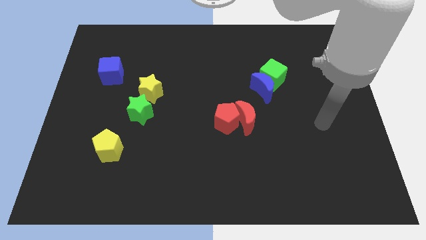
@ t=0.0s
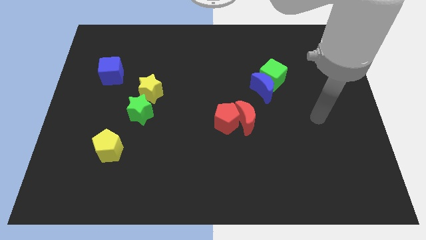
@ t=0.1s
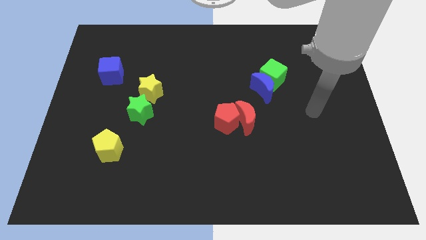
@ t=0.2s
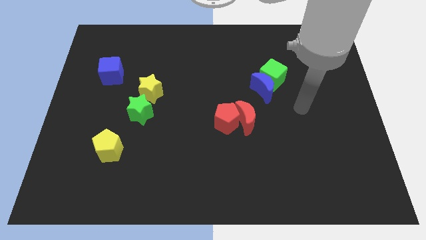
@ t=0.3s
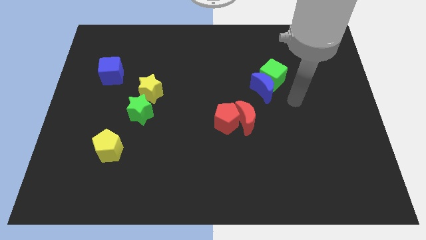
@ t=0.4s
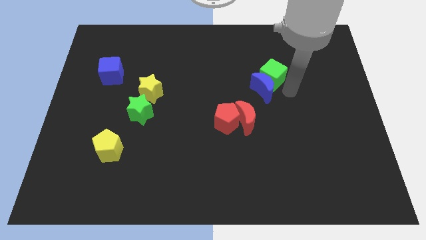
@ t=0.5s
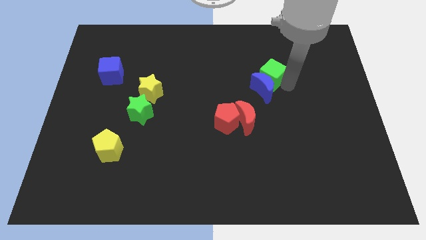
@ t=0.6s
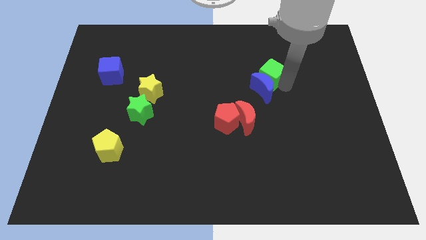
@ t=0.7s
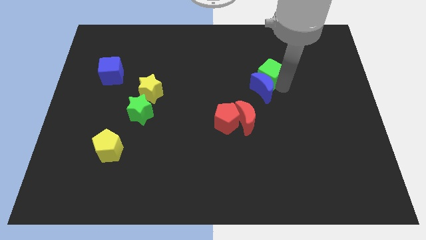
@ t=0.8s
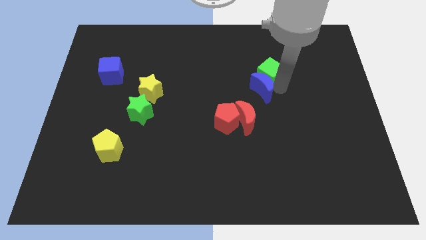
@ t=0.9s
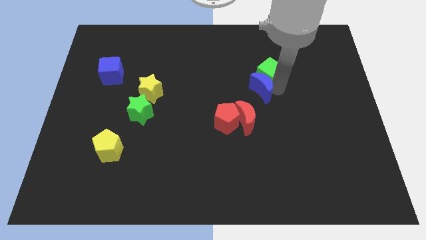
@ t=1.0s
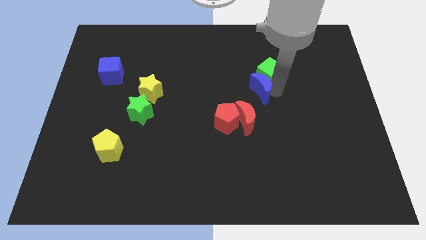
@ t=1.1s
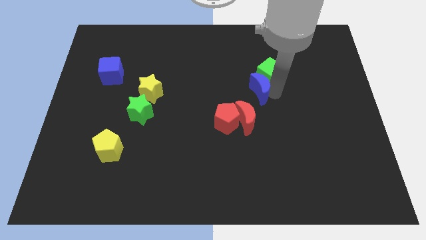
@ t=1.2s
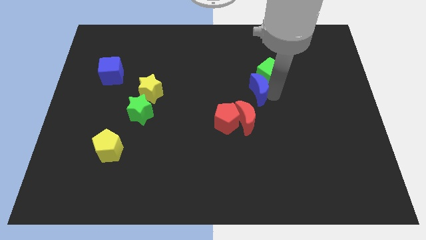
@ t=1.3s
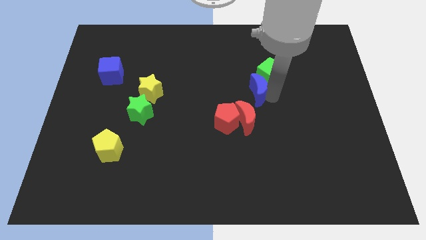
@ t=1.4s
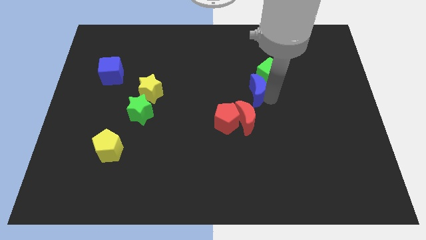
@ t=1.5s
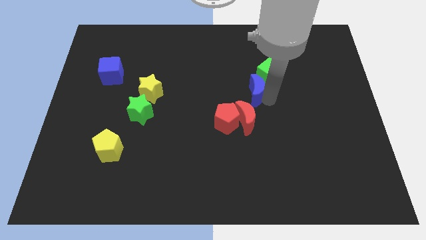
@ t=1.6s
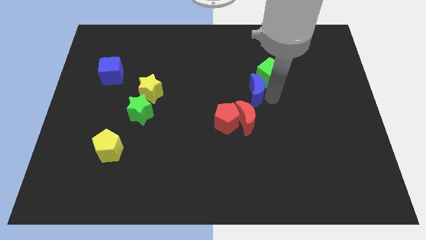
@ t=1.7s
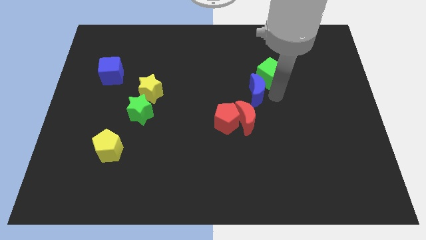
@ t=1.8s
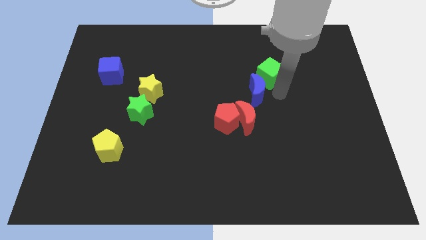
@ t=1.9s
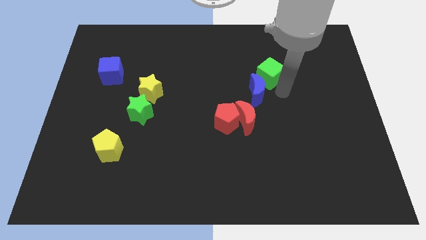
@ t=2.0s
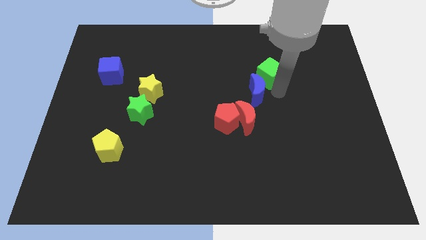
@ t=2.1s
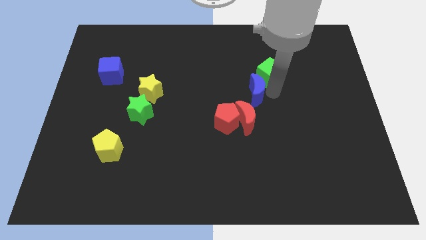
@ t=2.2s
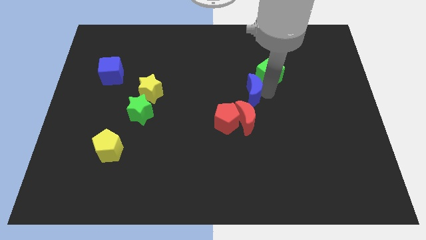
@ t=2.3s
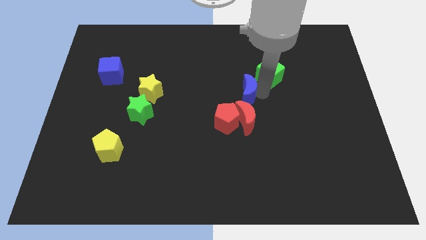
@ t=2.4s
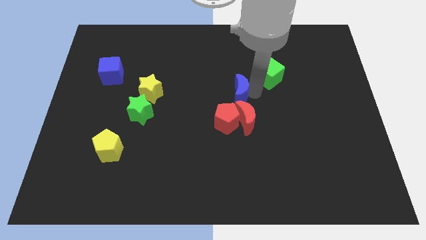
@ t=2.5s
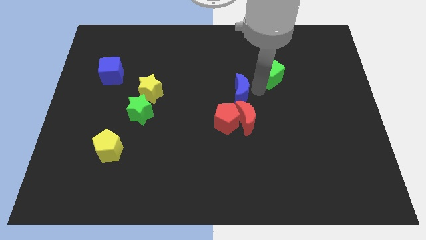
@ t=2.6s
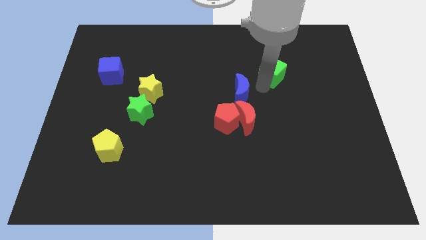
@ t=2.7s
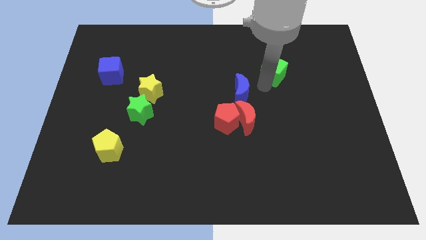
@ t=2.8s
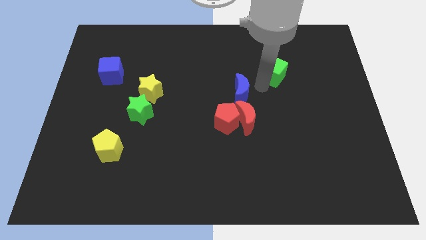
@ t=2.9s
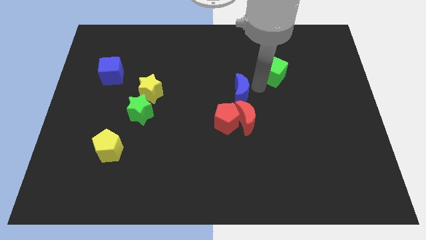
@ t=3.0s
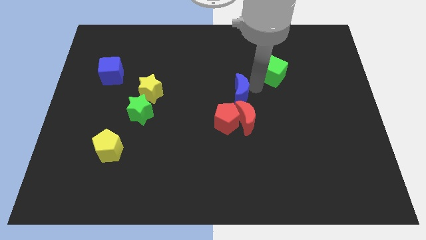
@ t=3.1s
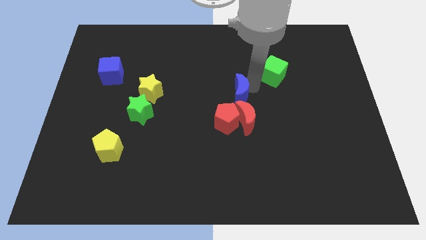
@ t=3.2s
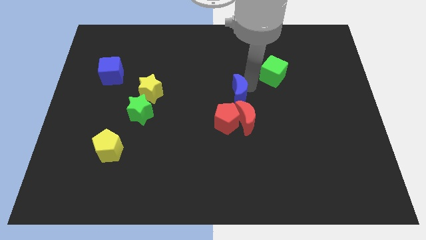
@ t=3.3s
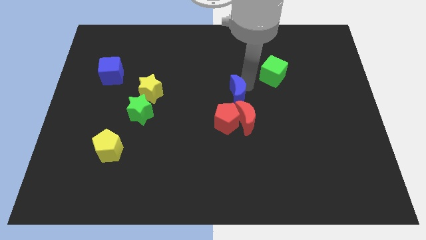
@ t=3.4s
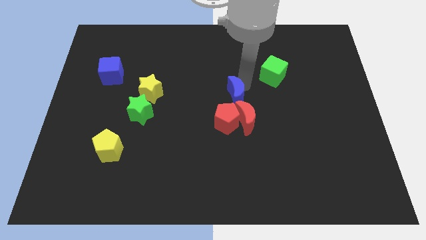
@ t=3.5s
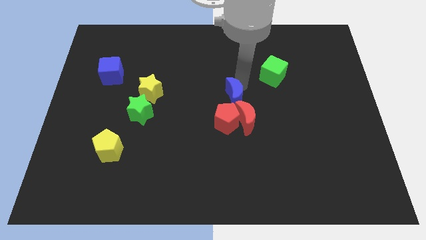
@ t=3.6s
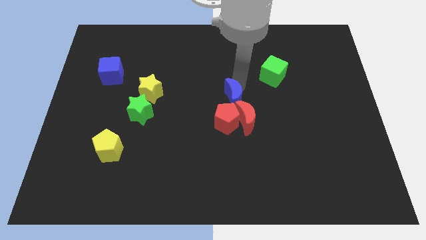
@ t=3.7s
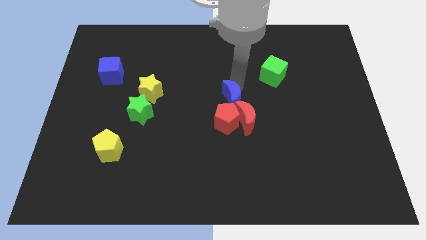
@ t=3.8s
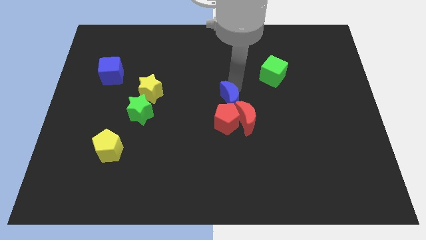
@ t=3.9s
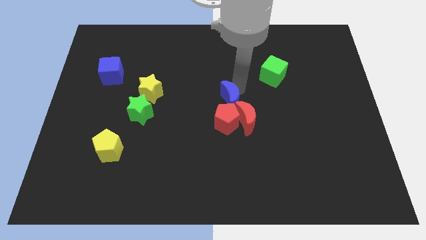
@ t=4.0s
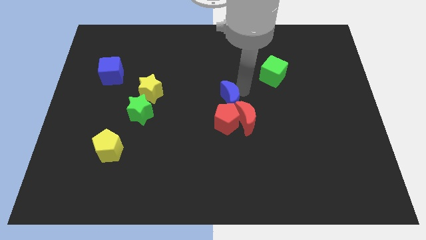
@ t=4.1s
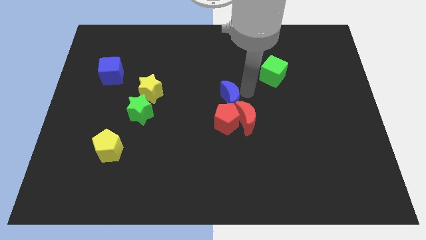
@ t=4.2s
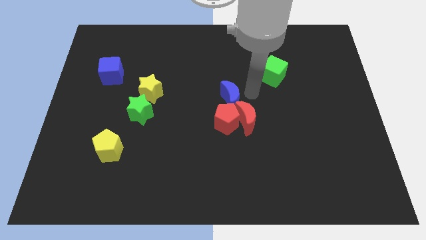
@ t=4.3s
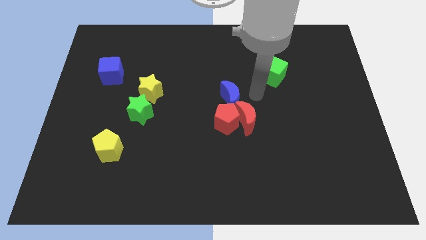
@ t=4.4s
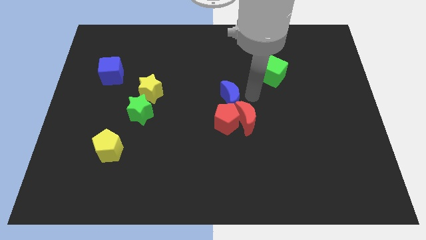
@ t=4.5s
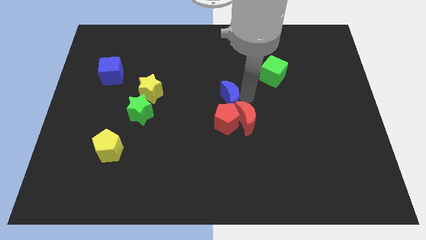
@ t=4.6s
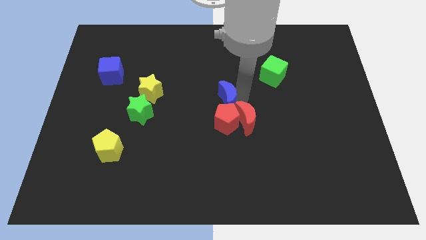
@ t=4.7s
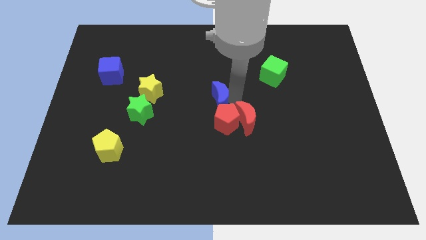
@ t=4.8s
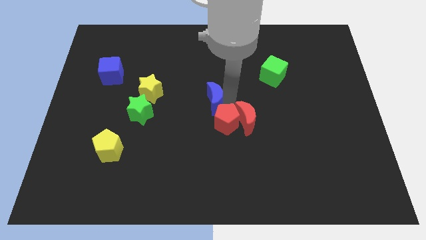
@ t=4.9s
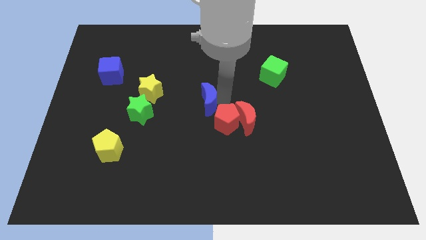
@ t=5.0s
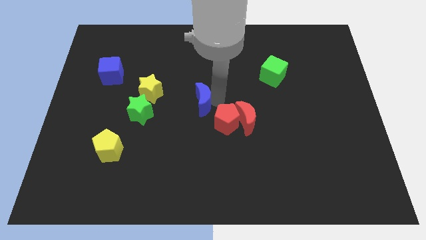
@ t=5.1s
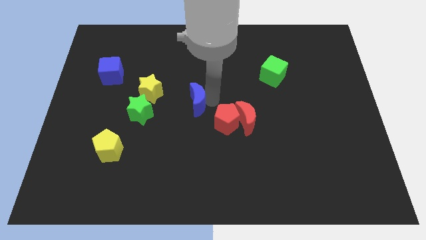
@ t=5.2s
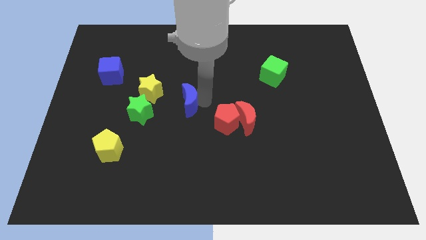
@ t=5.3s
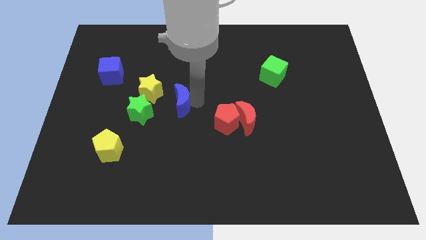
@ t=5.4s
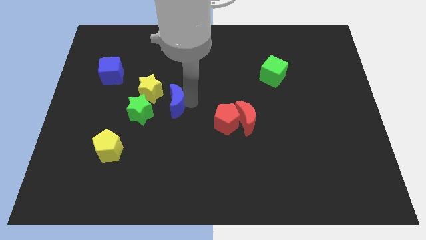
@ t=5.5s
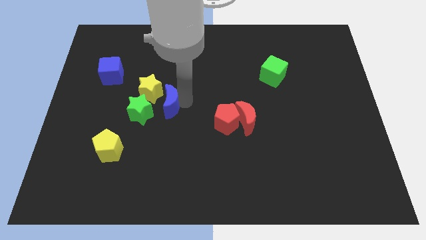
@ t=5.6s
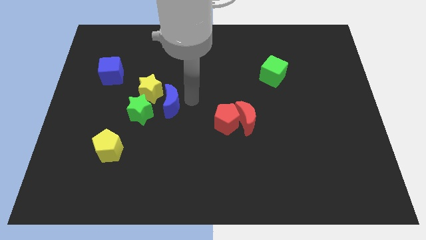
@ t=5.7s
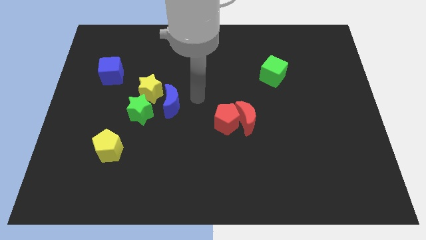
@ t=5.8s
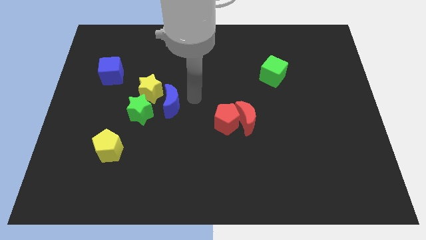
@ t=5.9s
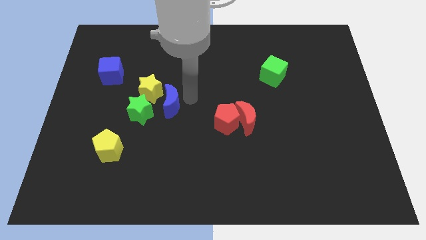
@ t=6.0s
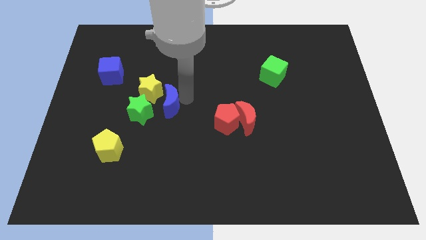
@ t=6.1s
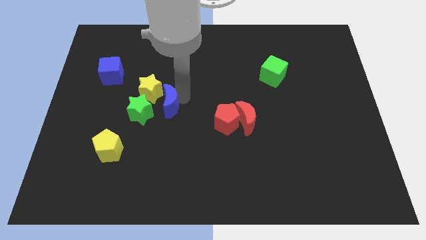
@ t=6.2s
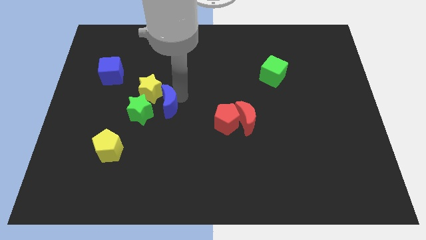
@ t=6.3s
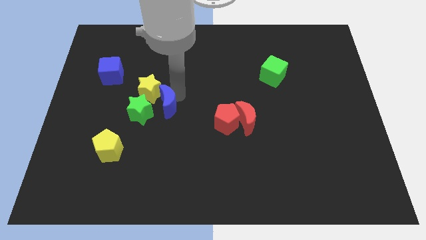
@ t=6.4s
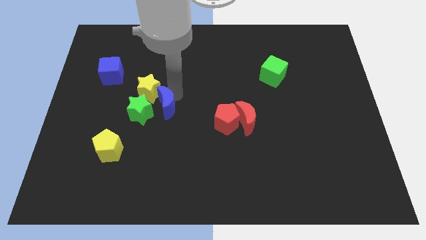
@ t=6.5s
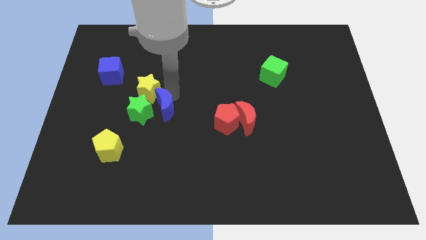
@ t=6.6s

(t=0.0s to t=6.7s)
put the blue moon next to the green star

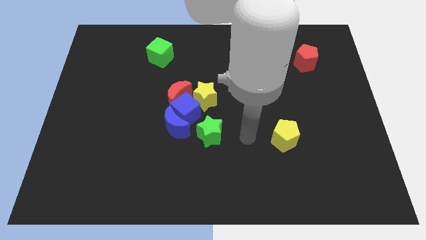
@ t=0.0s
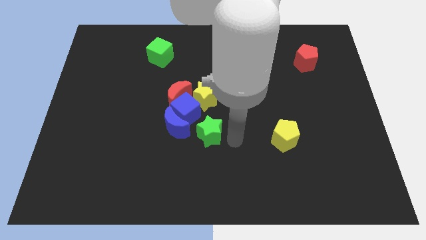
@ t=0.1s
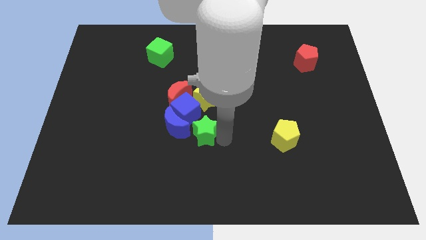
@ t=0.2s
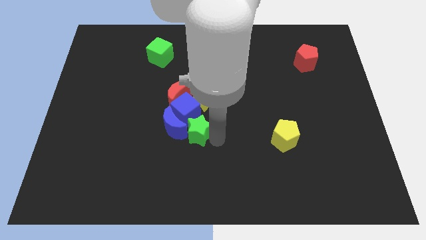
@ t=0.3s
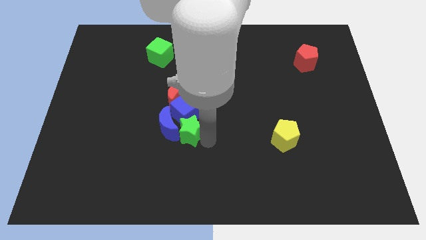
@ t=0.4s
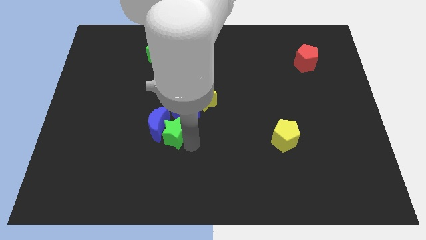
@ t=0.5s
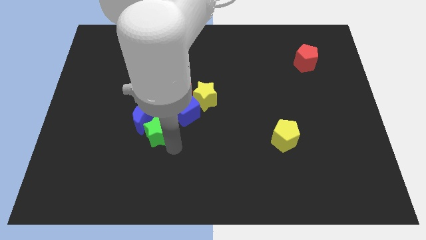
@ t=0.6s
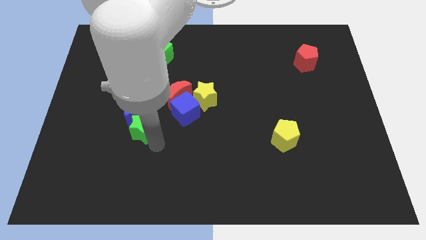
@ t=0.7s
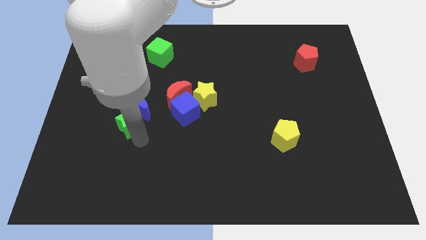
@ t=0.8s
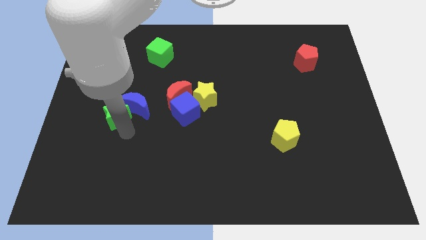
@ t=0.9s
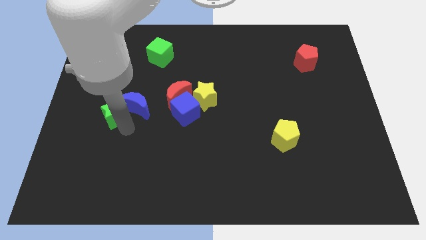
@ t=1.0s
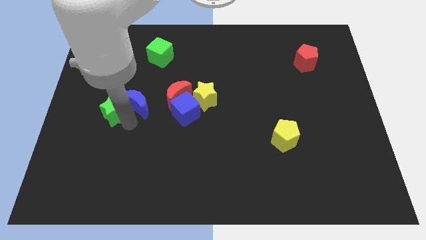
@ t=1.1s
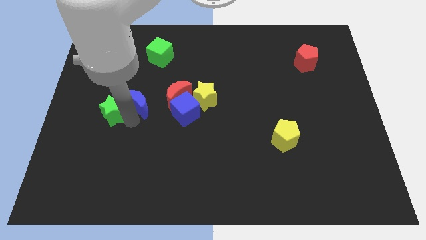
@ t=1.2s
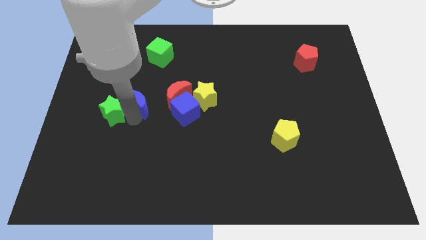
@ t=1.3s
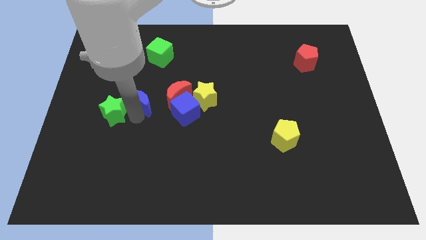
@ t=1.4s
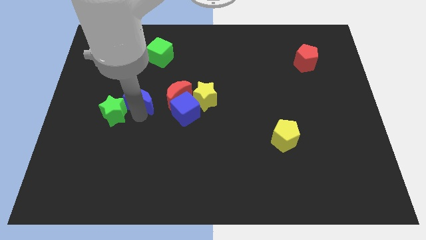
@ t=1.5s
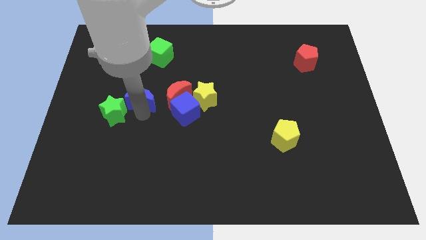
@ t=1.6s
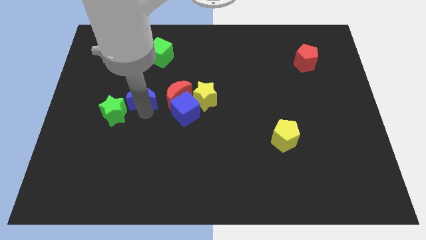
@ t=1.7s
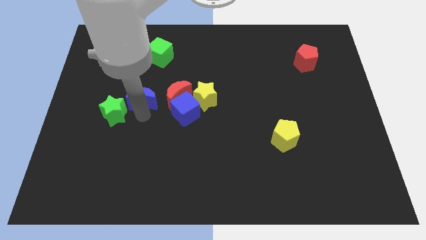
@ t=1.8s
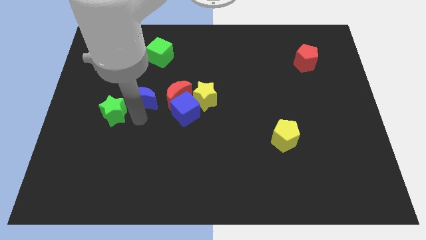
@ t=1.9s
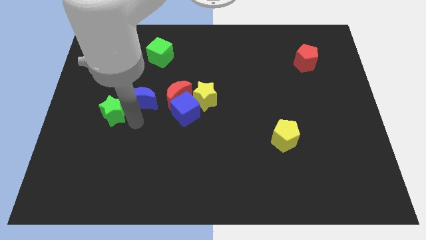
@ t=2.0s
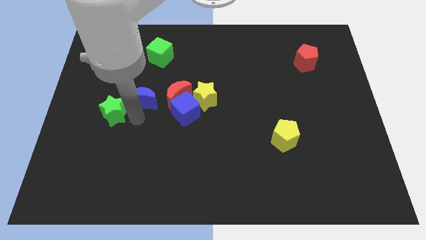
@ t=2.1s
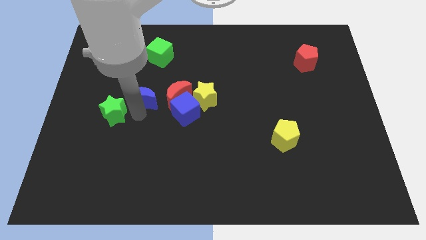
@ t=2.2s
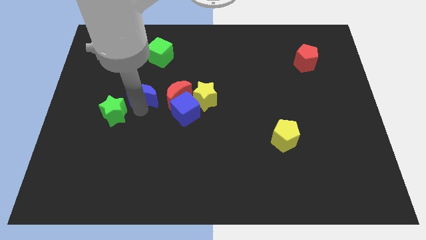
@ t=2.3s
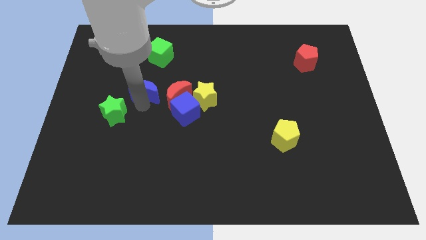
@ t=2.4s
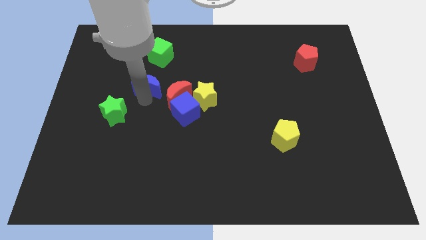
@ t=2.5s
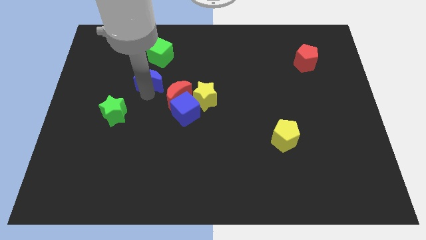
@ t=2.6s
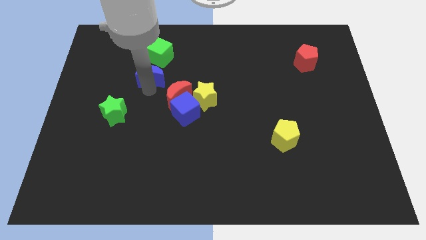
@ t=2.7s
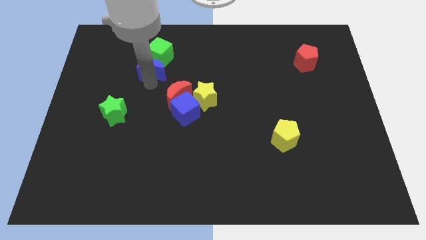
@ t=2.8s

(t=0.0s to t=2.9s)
push the blue moon next to the green cube
